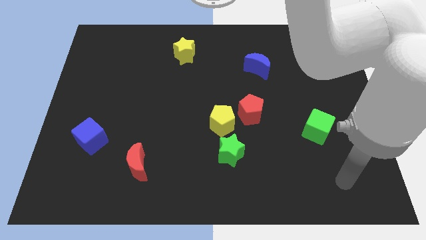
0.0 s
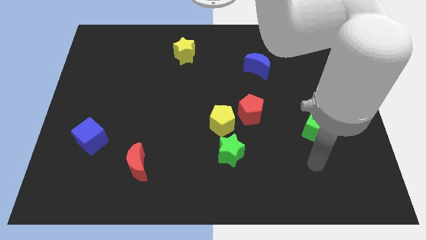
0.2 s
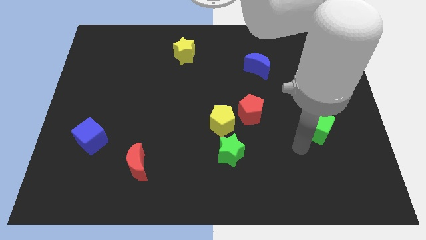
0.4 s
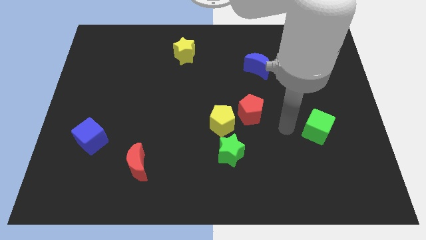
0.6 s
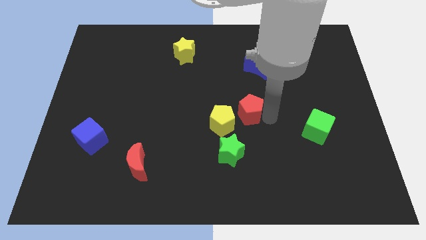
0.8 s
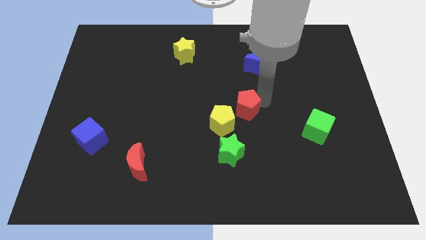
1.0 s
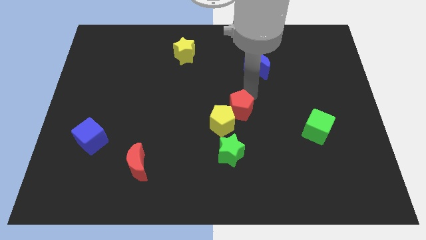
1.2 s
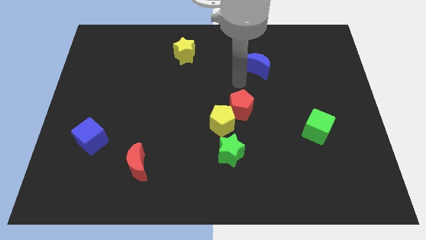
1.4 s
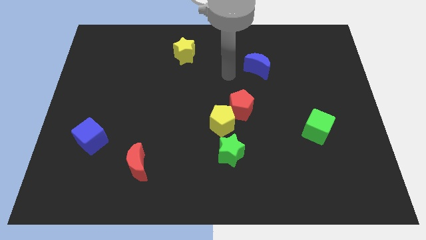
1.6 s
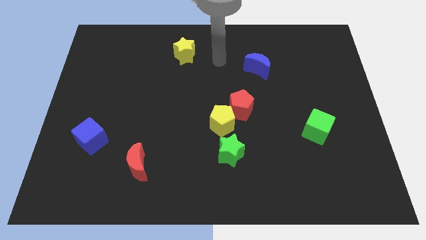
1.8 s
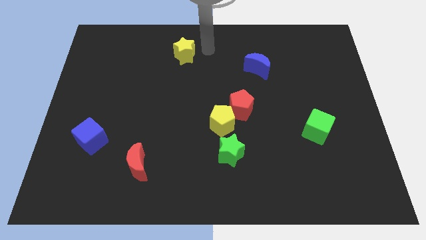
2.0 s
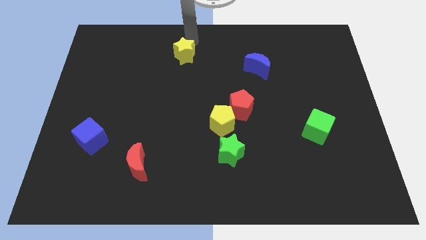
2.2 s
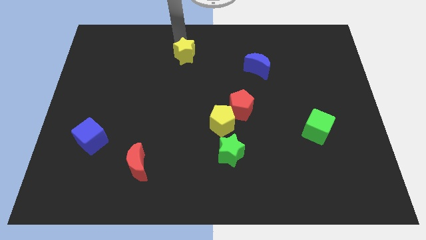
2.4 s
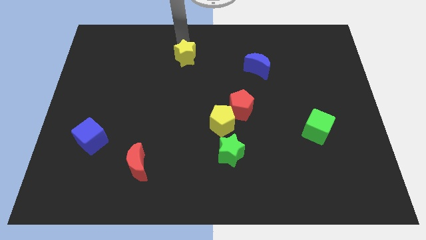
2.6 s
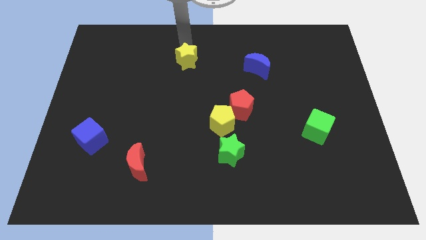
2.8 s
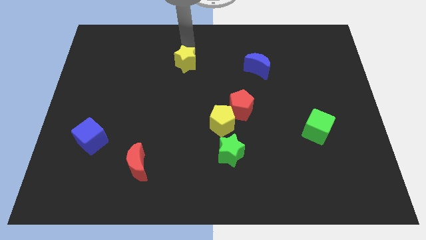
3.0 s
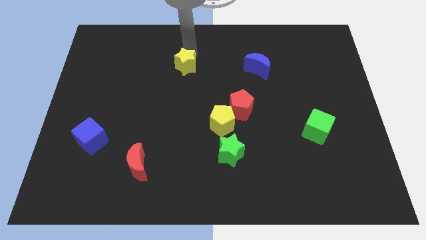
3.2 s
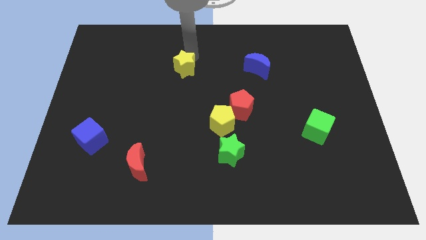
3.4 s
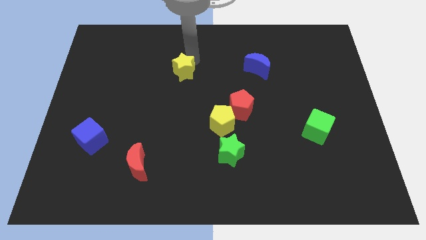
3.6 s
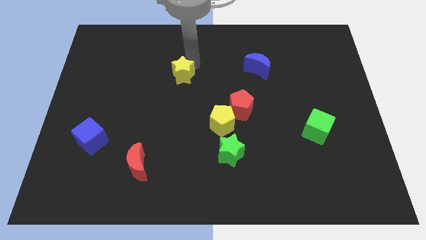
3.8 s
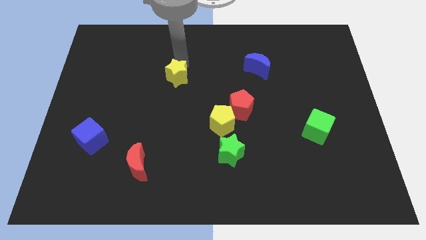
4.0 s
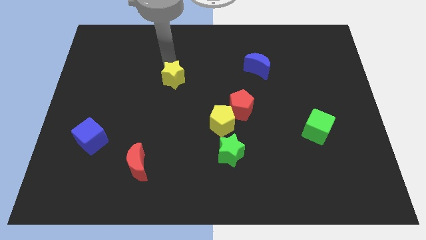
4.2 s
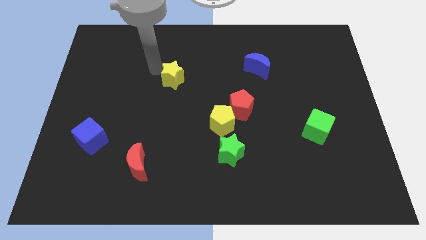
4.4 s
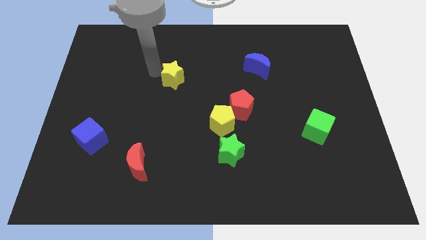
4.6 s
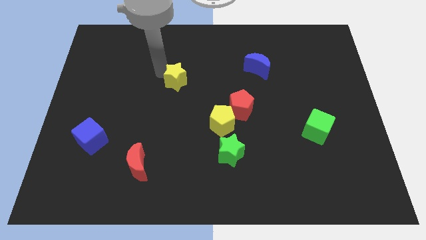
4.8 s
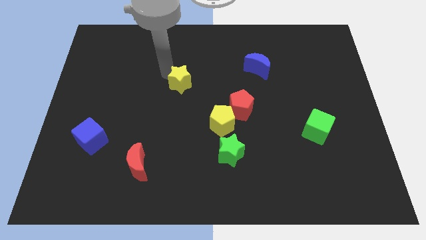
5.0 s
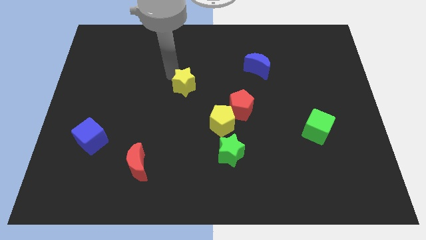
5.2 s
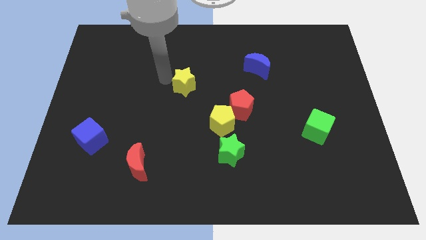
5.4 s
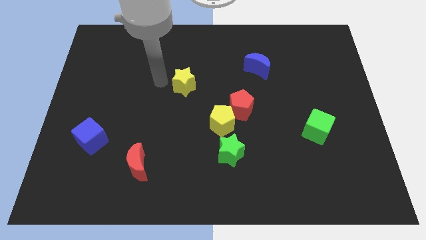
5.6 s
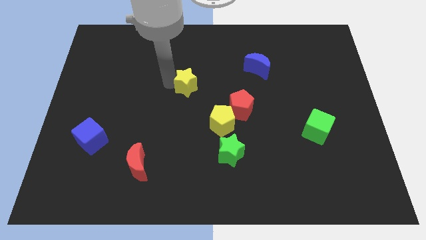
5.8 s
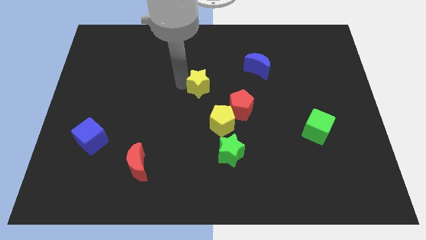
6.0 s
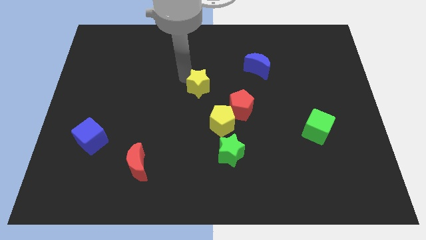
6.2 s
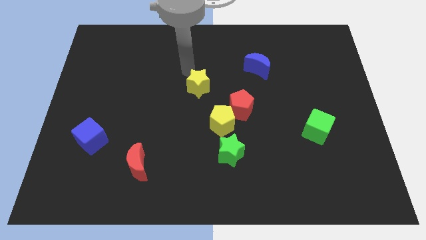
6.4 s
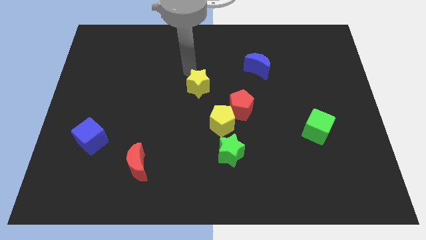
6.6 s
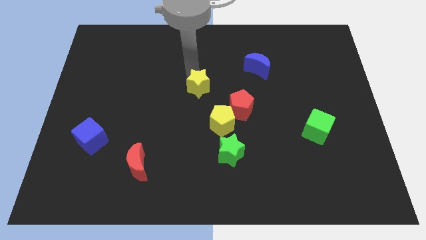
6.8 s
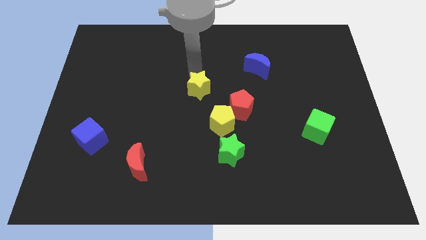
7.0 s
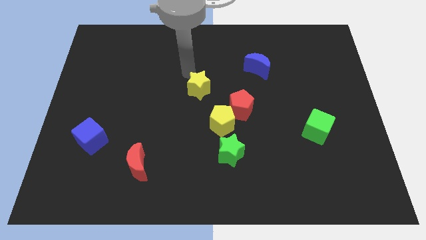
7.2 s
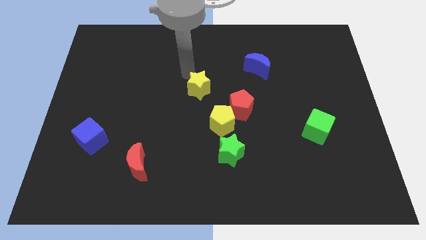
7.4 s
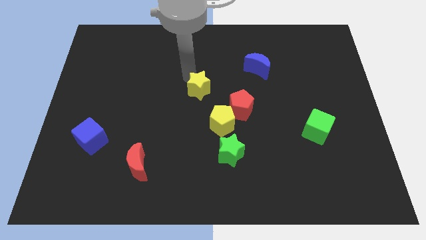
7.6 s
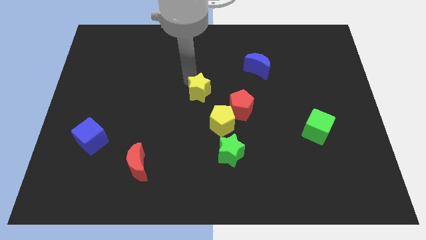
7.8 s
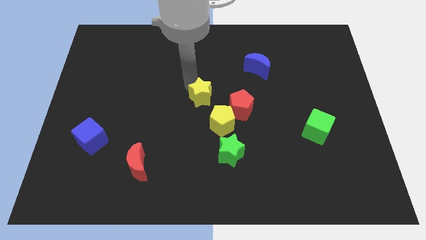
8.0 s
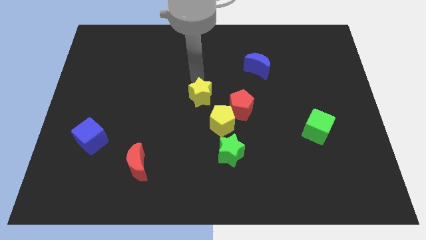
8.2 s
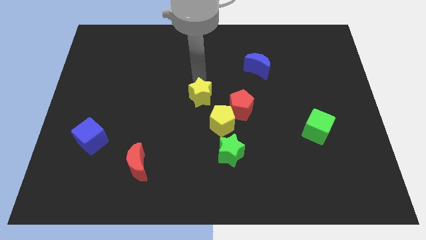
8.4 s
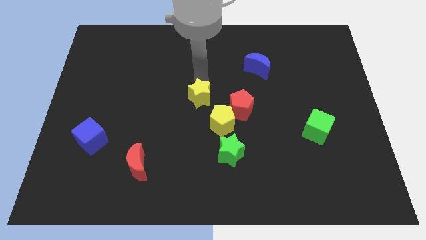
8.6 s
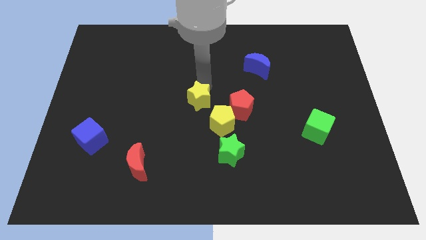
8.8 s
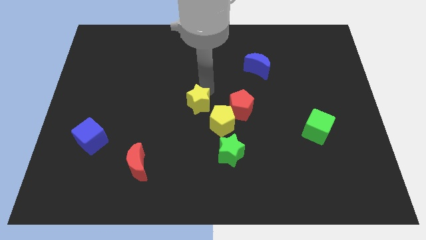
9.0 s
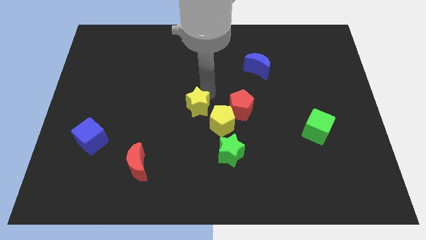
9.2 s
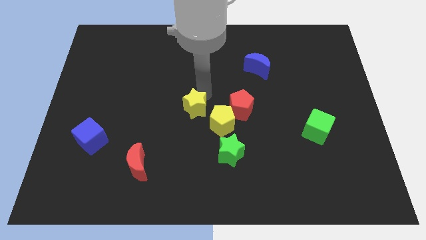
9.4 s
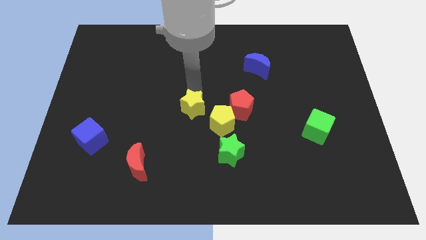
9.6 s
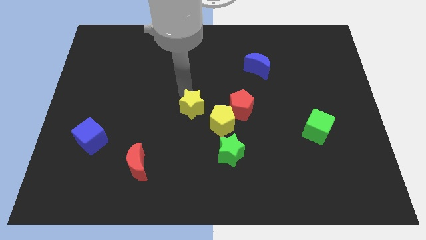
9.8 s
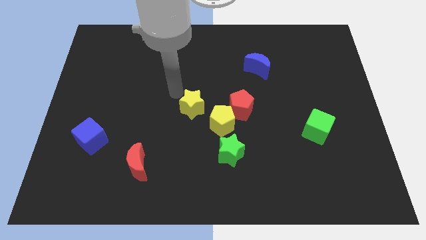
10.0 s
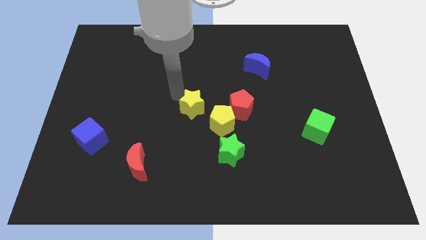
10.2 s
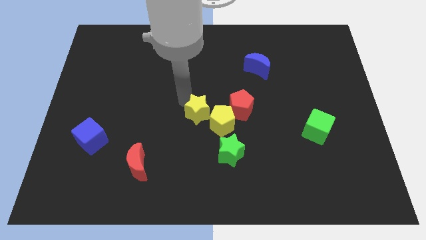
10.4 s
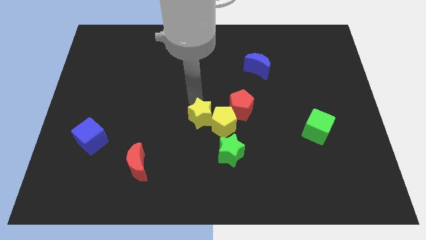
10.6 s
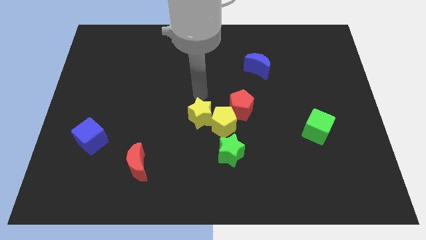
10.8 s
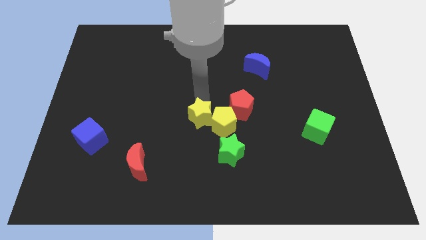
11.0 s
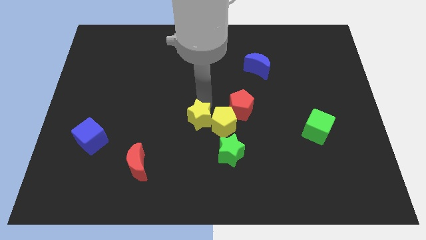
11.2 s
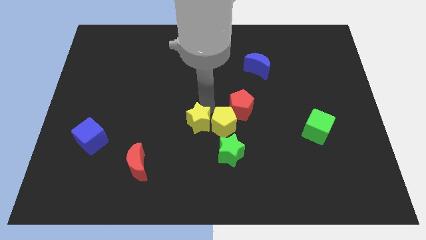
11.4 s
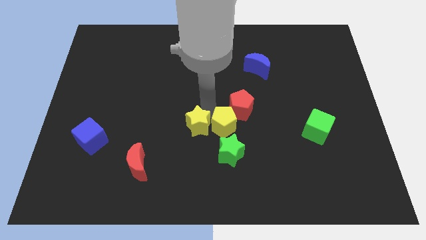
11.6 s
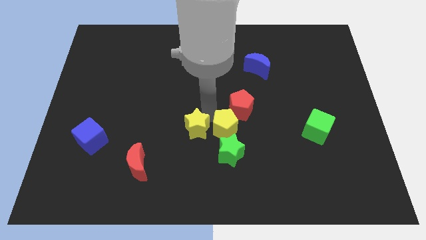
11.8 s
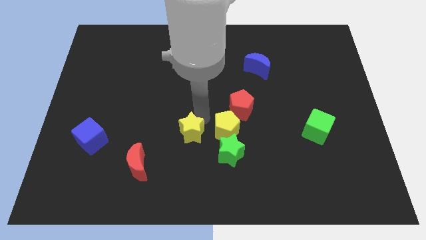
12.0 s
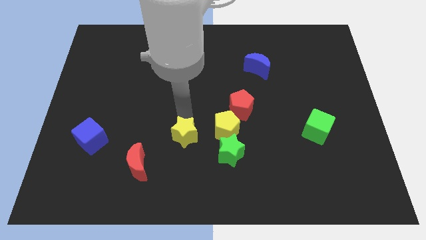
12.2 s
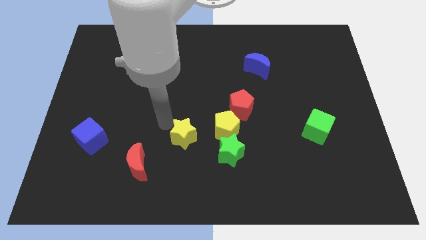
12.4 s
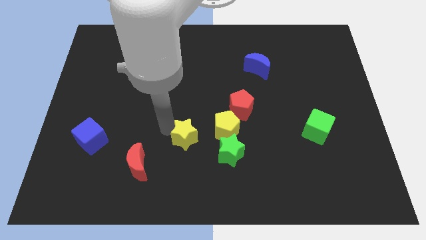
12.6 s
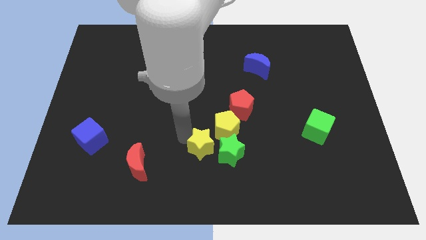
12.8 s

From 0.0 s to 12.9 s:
put the yellow star close to the green star

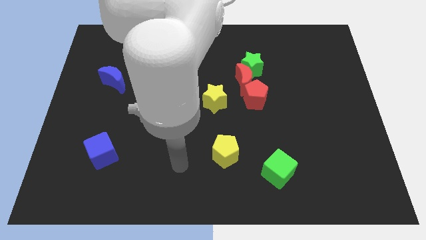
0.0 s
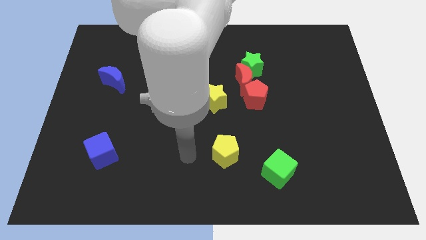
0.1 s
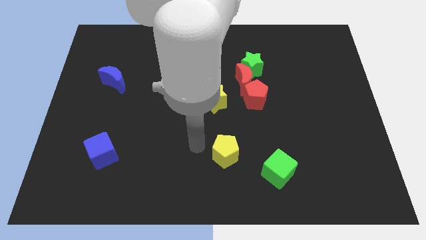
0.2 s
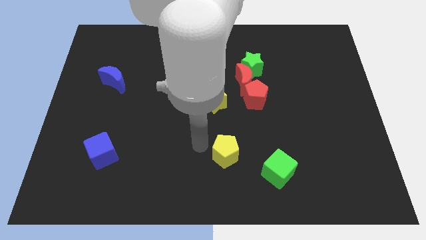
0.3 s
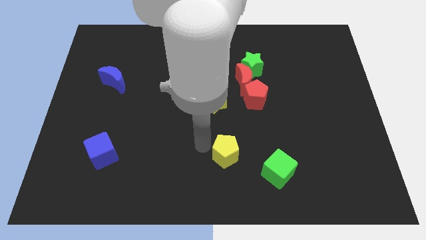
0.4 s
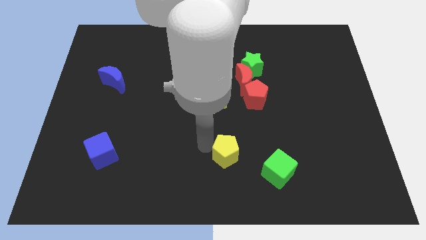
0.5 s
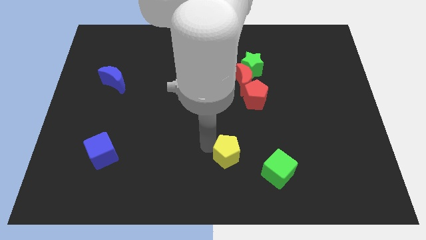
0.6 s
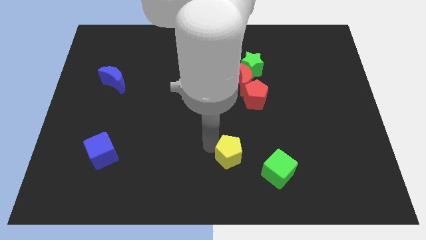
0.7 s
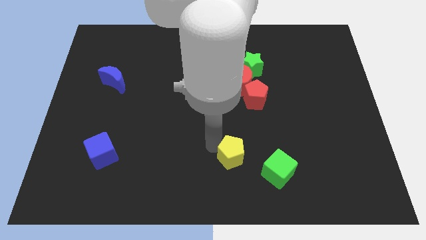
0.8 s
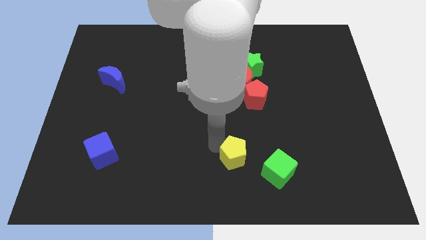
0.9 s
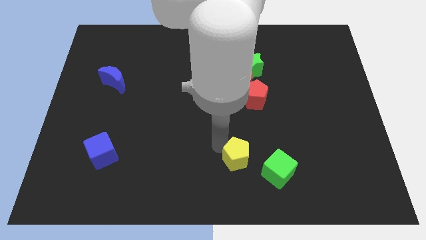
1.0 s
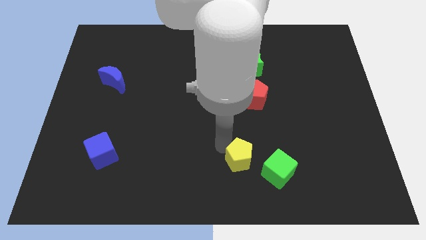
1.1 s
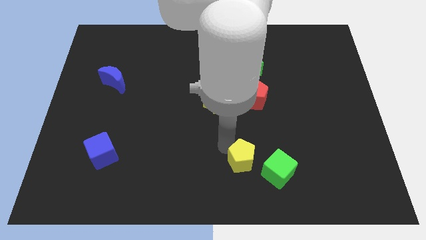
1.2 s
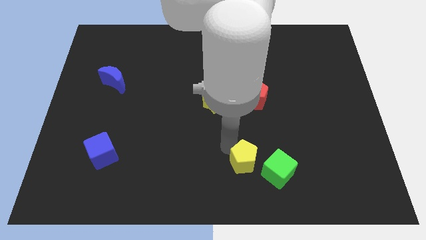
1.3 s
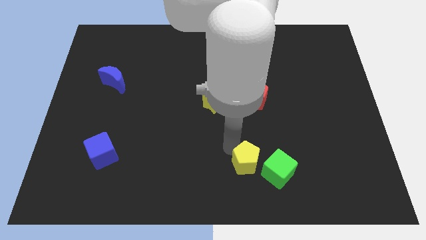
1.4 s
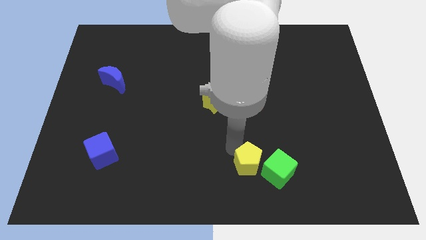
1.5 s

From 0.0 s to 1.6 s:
put the yellow pentagon to the green cube
